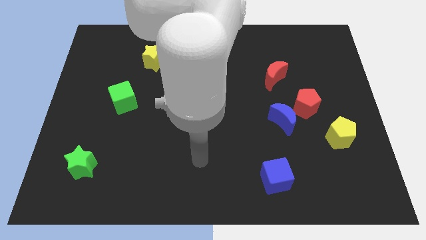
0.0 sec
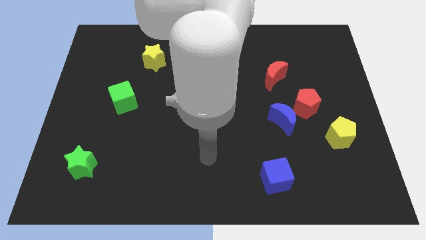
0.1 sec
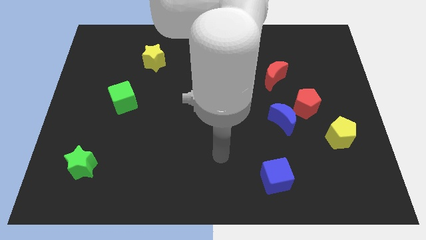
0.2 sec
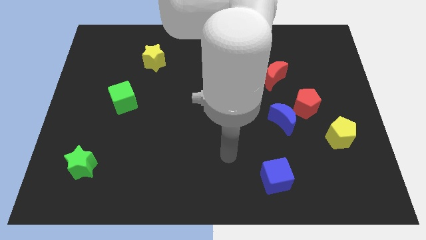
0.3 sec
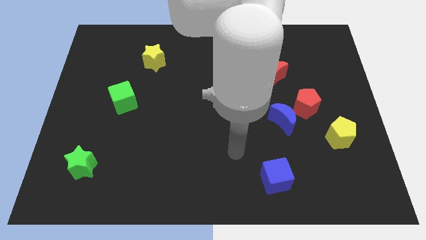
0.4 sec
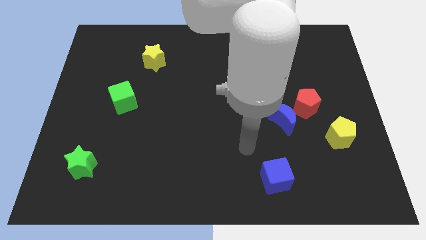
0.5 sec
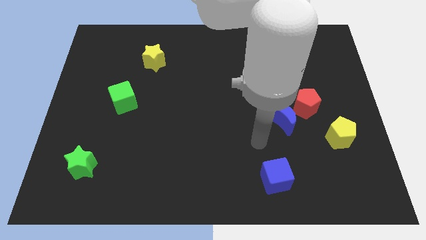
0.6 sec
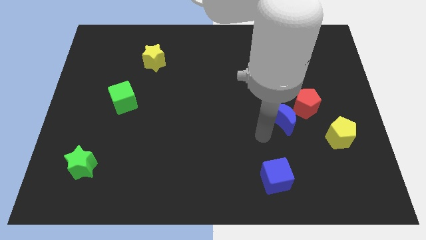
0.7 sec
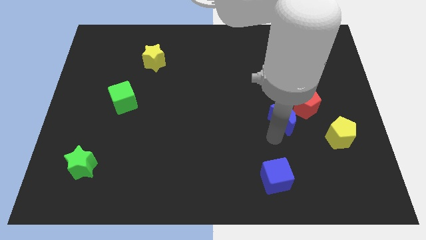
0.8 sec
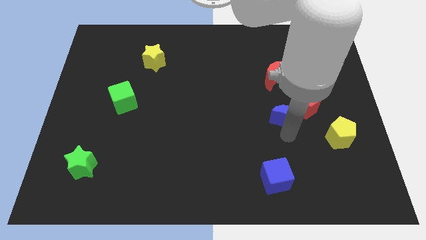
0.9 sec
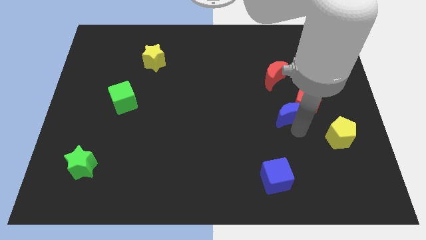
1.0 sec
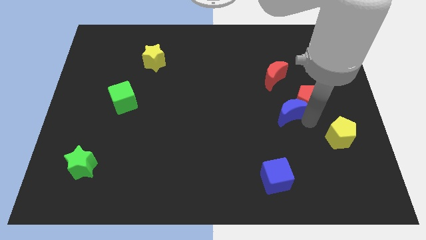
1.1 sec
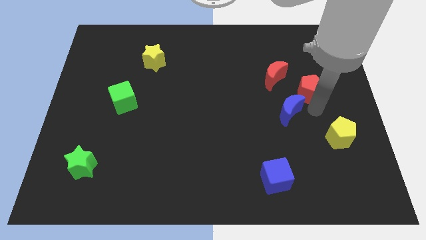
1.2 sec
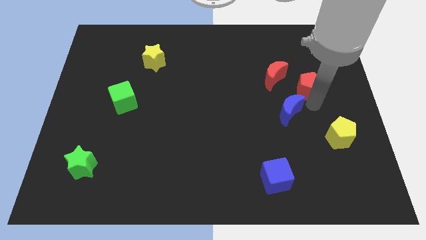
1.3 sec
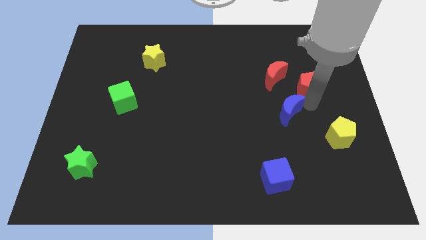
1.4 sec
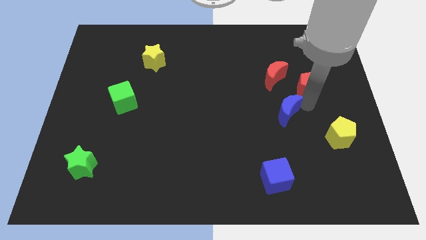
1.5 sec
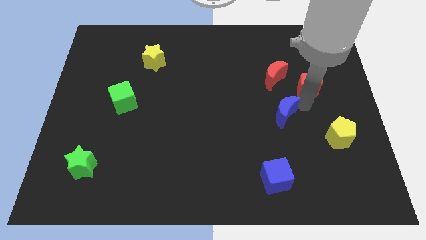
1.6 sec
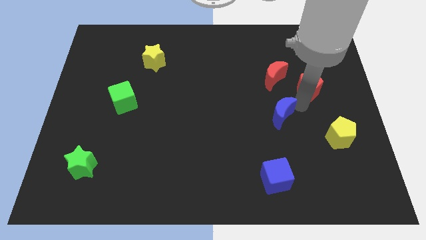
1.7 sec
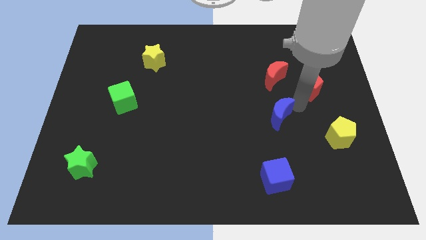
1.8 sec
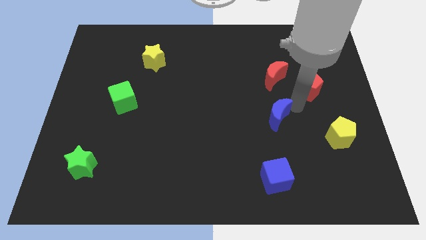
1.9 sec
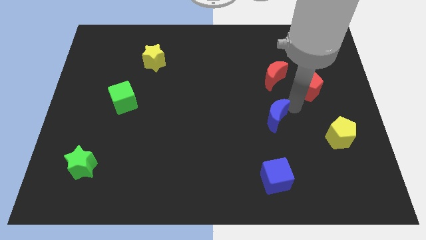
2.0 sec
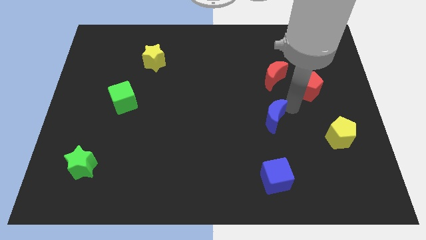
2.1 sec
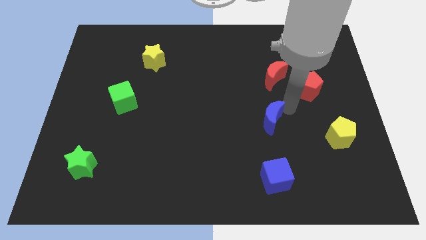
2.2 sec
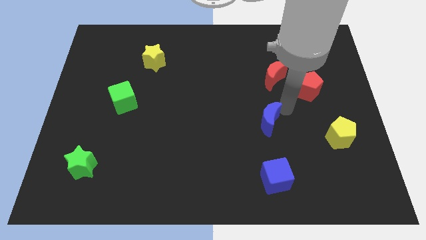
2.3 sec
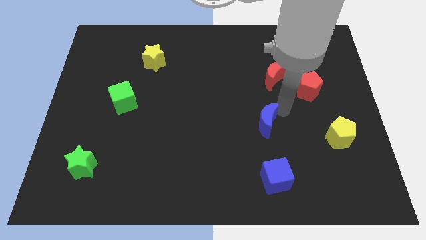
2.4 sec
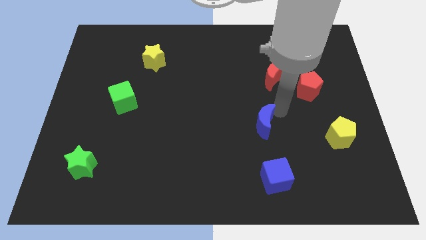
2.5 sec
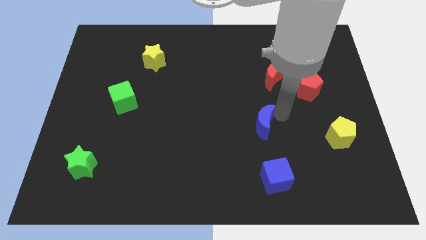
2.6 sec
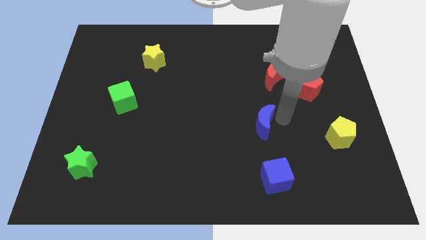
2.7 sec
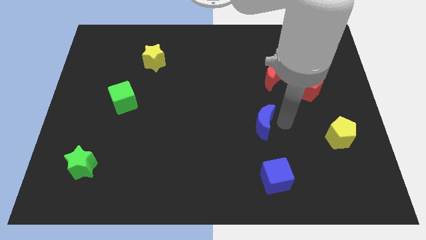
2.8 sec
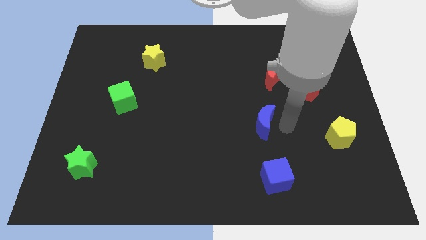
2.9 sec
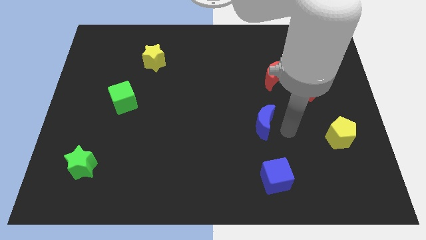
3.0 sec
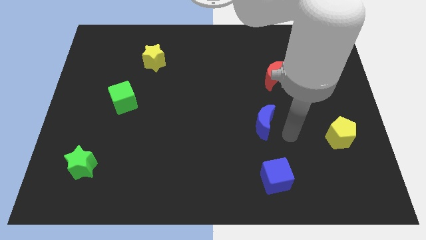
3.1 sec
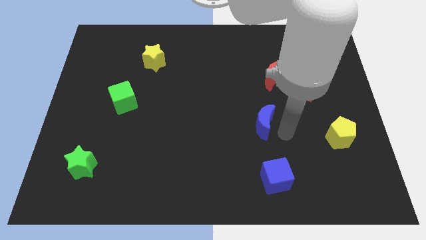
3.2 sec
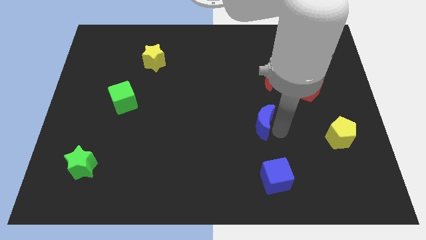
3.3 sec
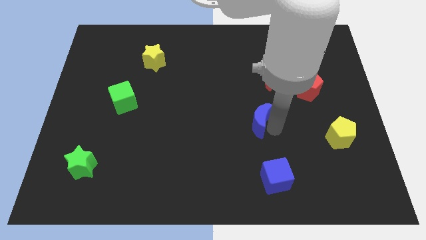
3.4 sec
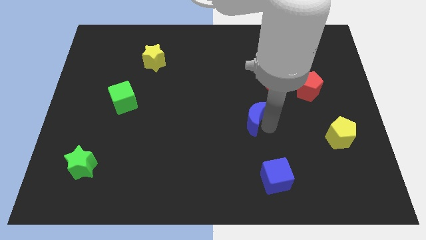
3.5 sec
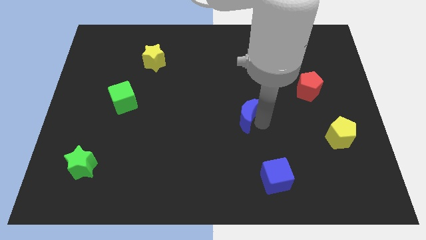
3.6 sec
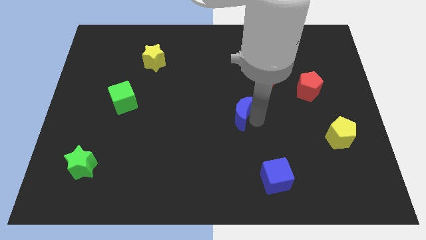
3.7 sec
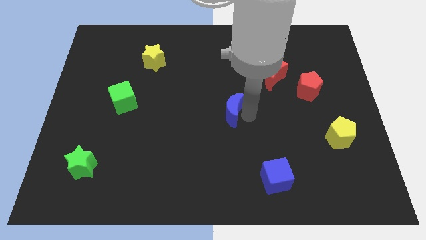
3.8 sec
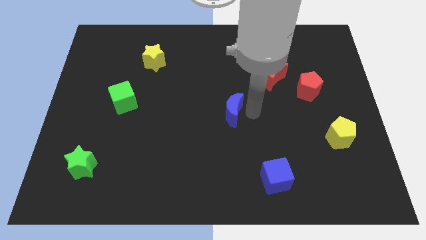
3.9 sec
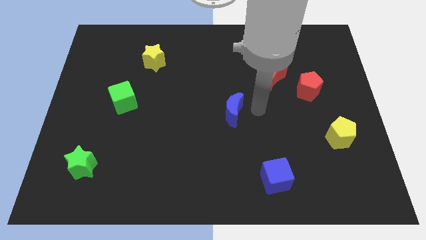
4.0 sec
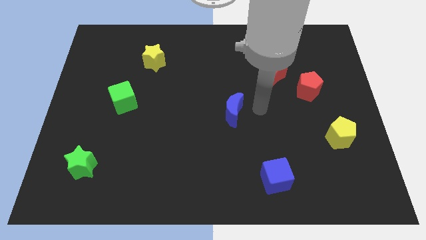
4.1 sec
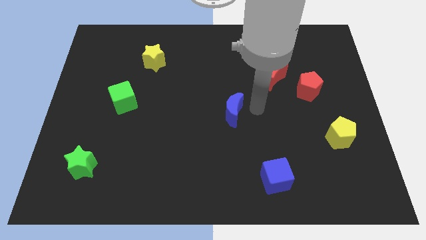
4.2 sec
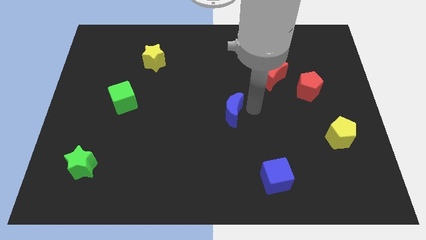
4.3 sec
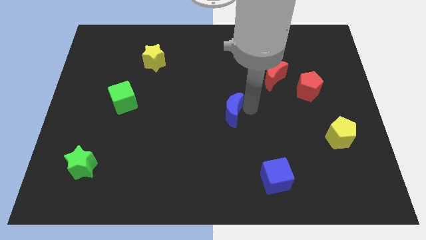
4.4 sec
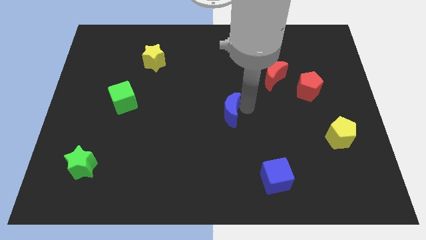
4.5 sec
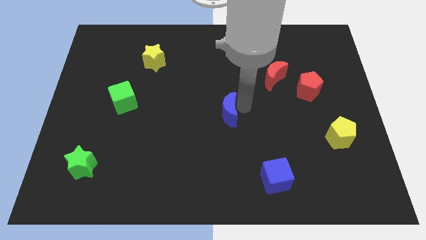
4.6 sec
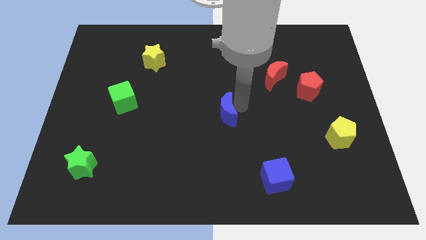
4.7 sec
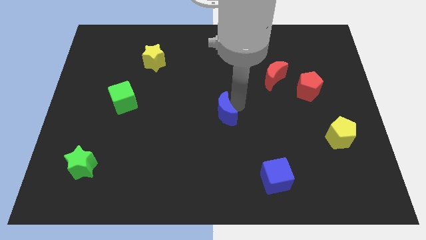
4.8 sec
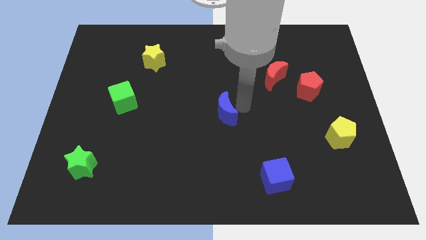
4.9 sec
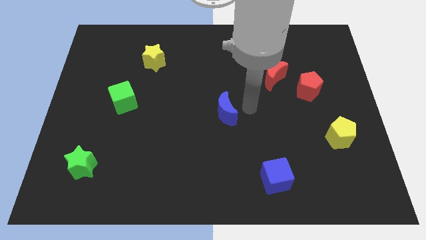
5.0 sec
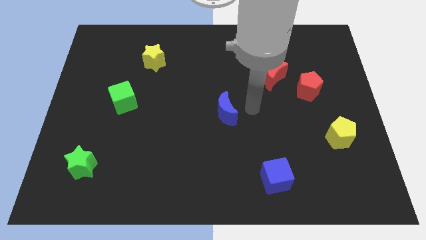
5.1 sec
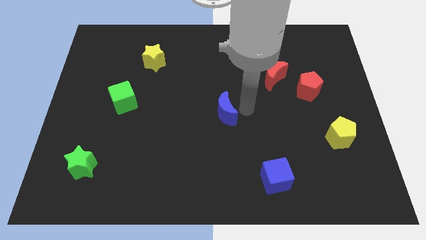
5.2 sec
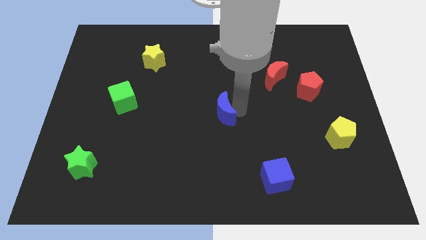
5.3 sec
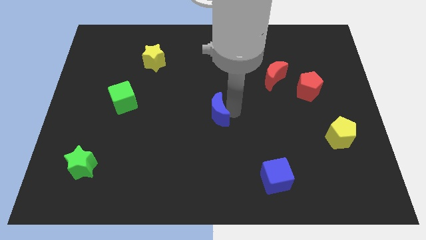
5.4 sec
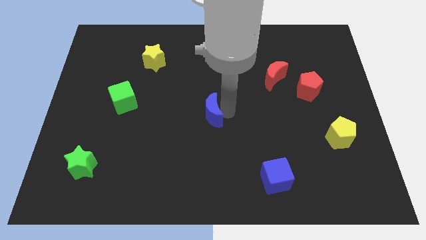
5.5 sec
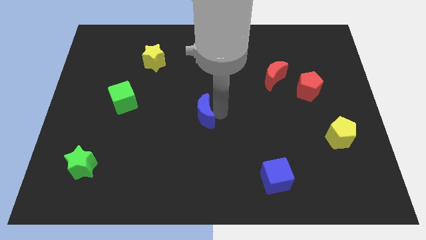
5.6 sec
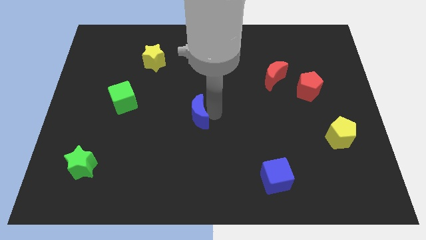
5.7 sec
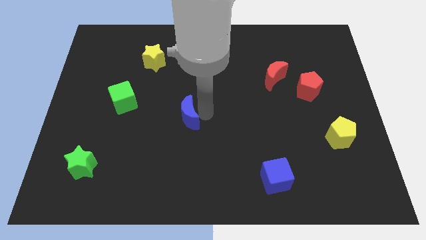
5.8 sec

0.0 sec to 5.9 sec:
move the blue moon to the left

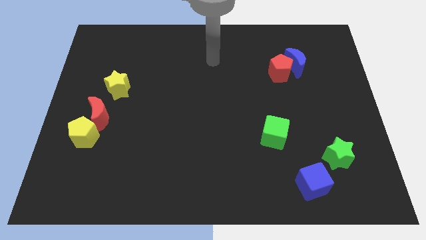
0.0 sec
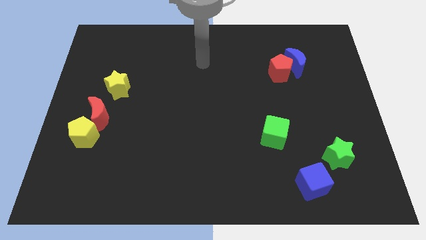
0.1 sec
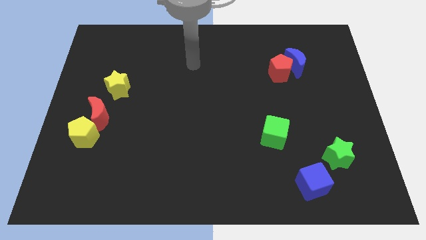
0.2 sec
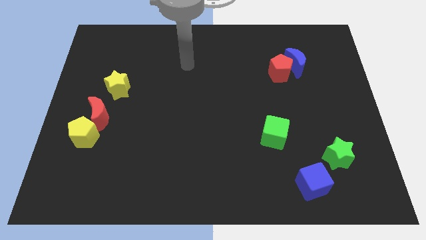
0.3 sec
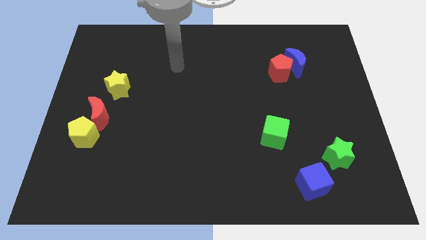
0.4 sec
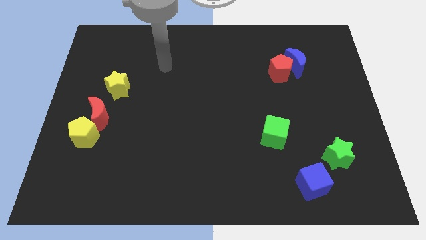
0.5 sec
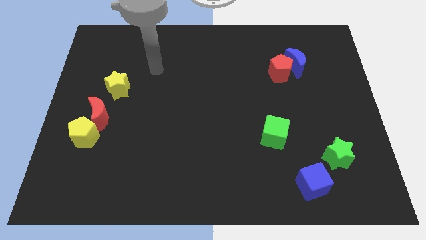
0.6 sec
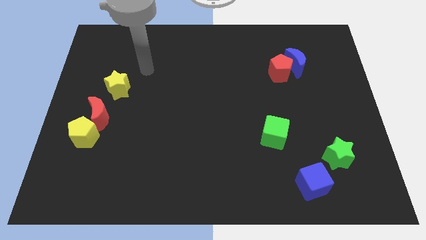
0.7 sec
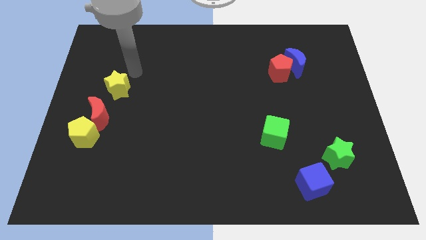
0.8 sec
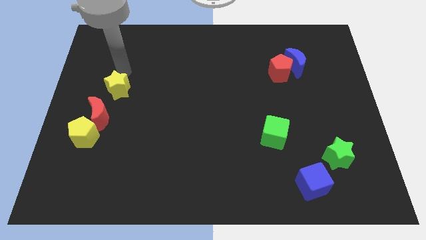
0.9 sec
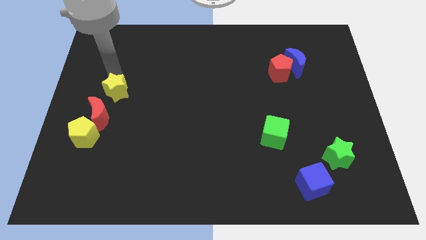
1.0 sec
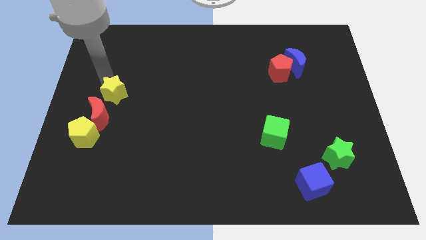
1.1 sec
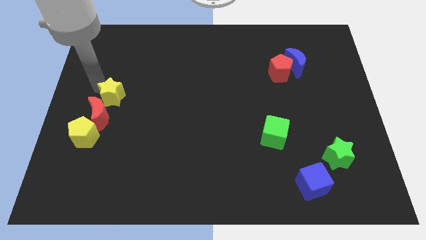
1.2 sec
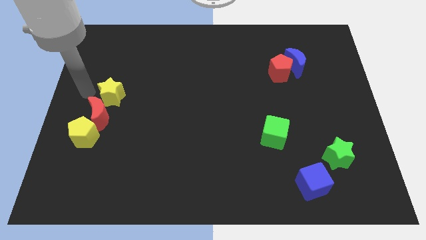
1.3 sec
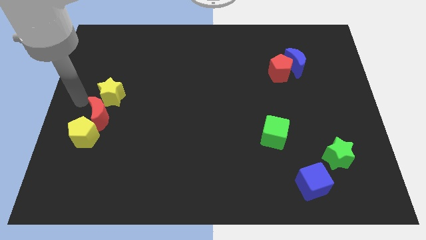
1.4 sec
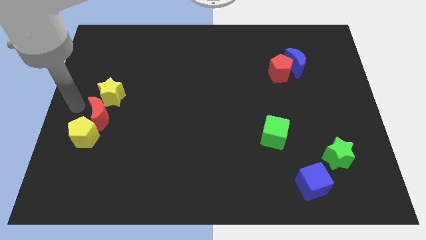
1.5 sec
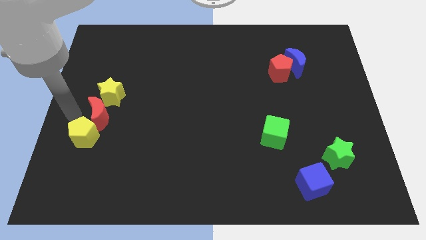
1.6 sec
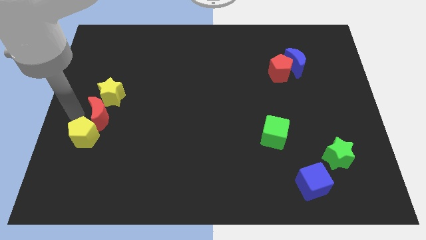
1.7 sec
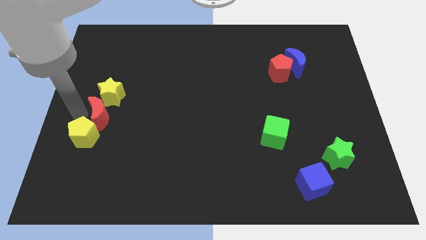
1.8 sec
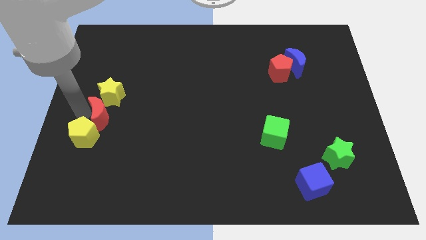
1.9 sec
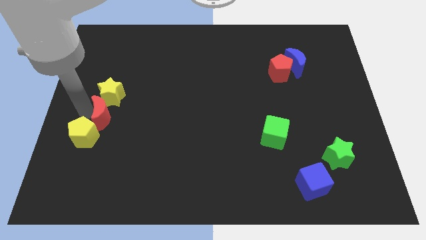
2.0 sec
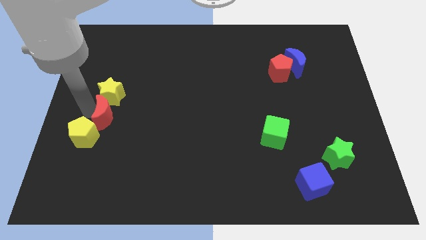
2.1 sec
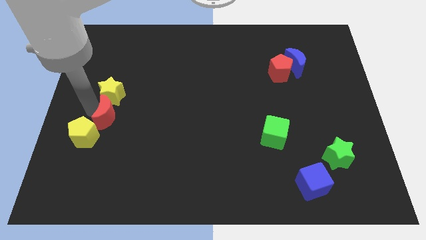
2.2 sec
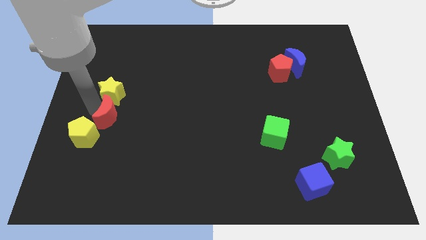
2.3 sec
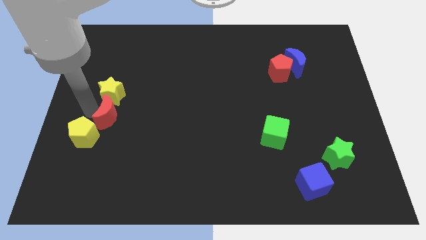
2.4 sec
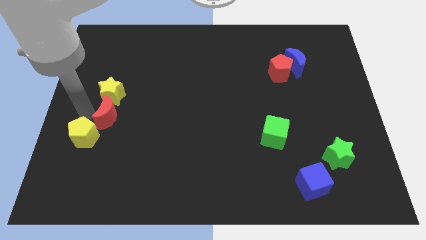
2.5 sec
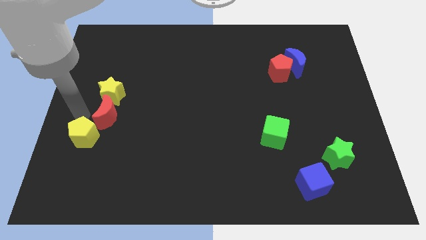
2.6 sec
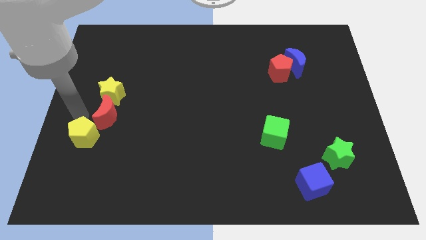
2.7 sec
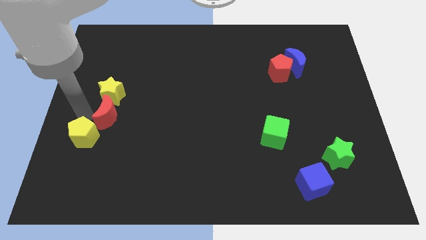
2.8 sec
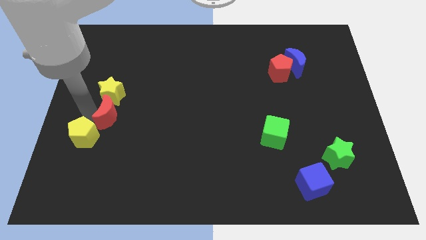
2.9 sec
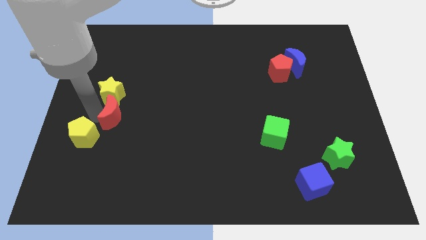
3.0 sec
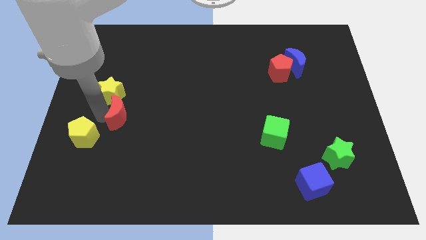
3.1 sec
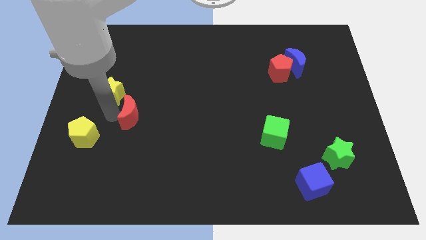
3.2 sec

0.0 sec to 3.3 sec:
move the red moon to the right a bit
